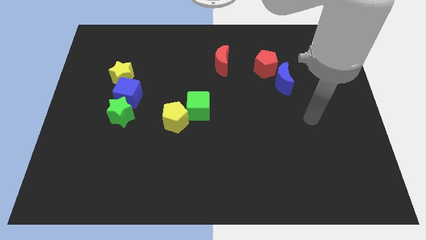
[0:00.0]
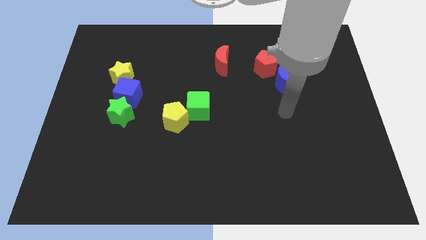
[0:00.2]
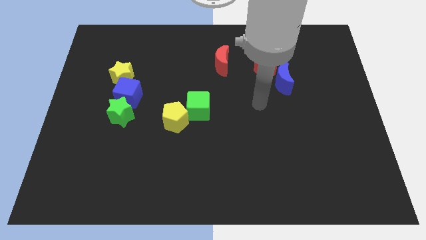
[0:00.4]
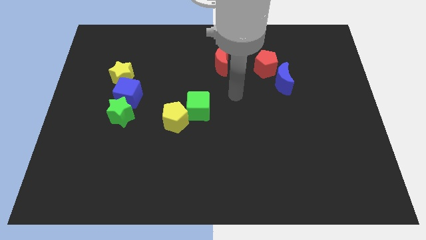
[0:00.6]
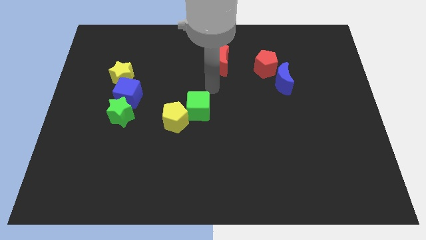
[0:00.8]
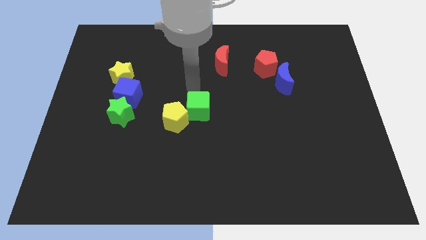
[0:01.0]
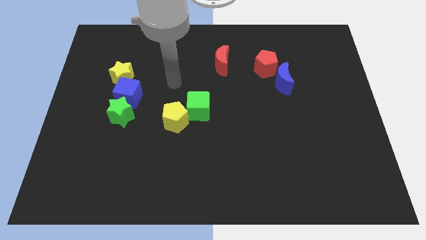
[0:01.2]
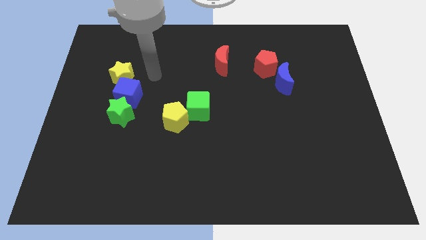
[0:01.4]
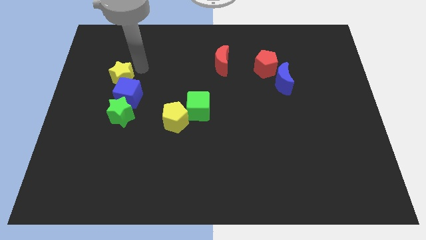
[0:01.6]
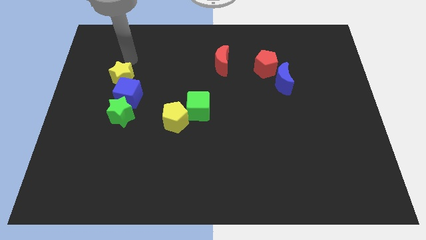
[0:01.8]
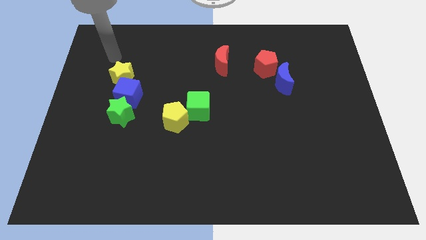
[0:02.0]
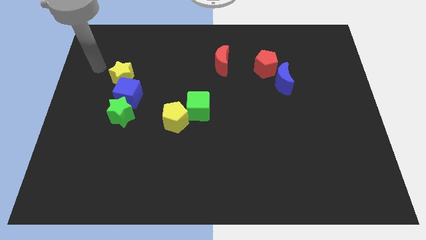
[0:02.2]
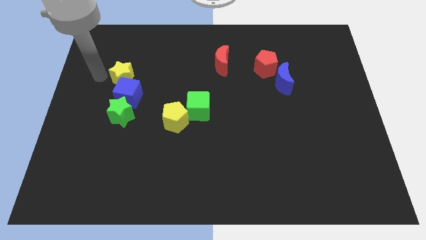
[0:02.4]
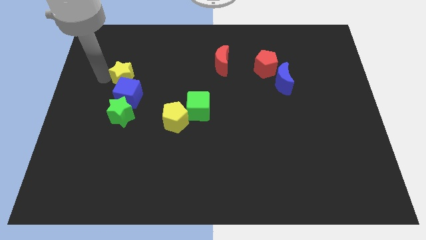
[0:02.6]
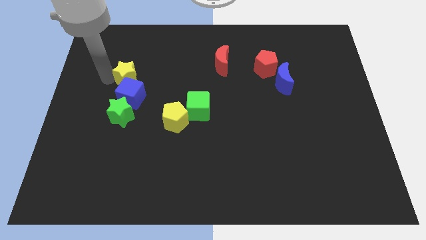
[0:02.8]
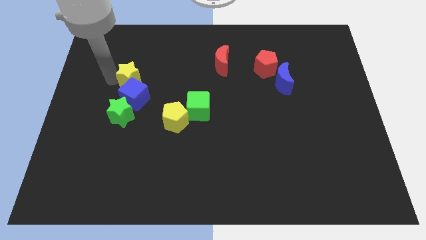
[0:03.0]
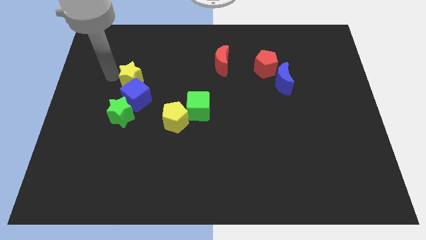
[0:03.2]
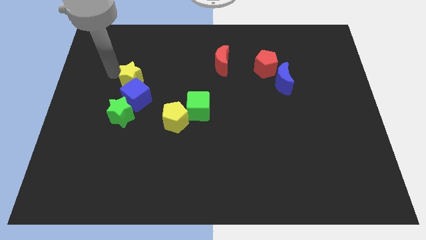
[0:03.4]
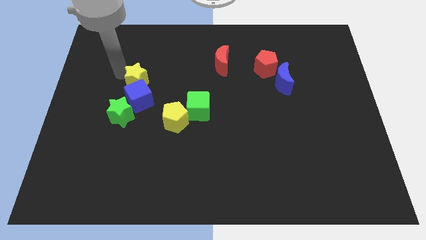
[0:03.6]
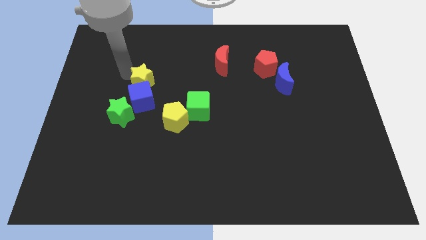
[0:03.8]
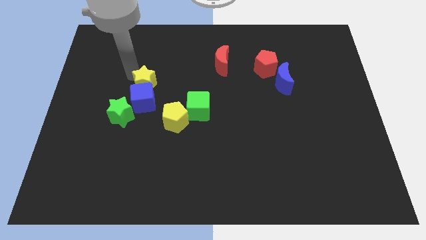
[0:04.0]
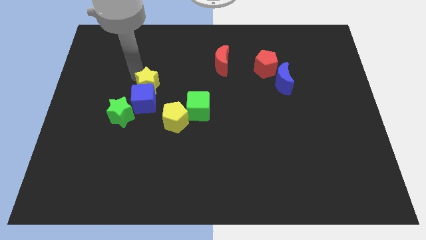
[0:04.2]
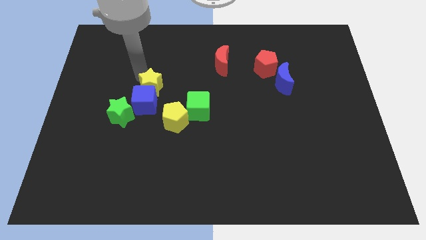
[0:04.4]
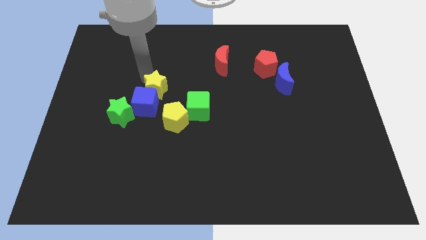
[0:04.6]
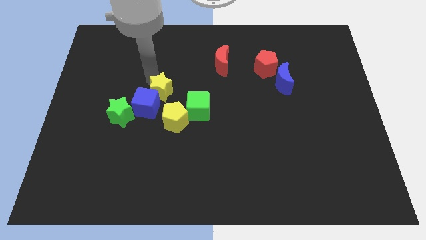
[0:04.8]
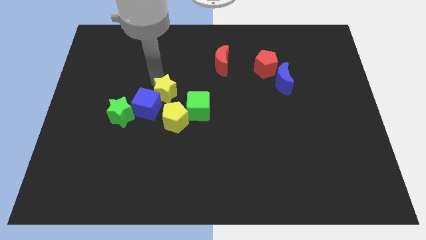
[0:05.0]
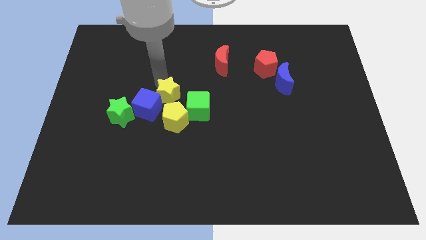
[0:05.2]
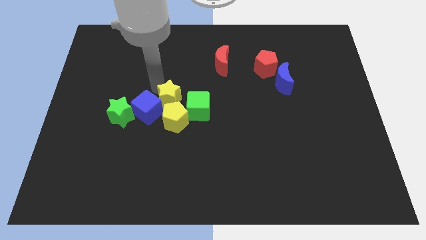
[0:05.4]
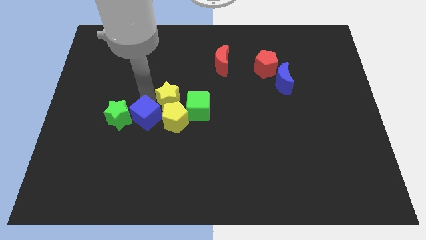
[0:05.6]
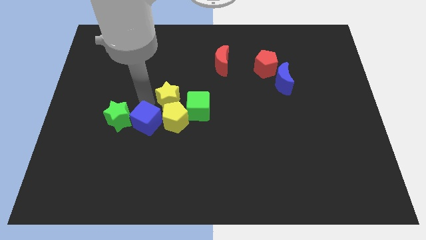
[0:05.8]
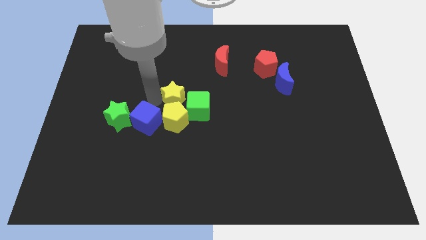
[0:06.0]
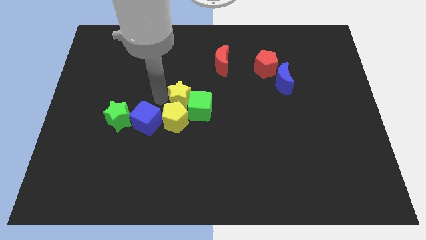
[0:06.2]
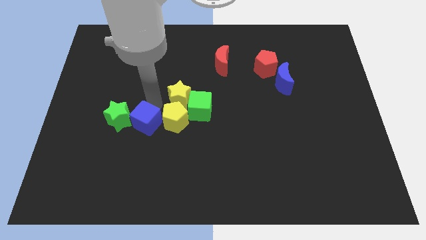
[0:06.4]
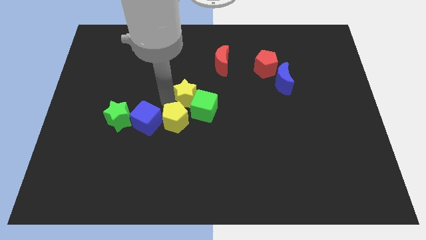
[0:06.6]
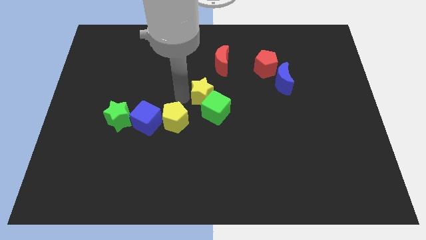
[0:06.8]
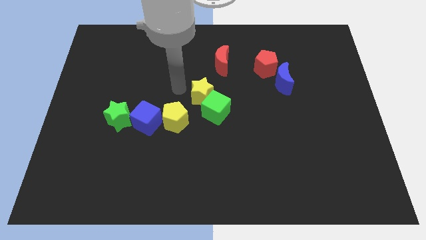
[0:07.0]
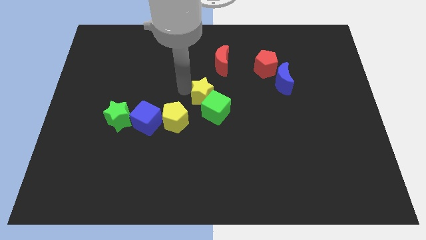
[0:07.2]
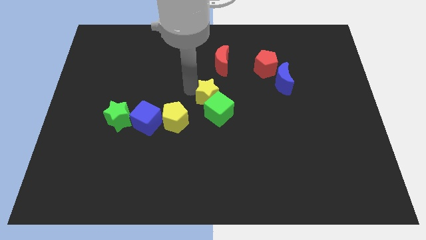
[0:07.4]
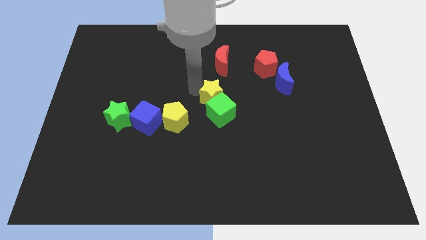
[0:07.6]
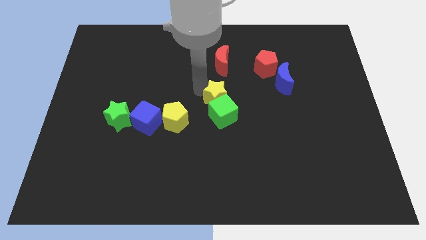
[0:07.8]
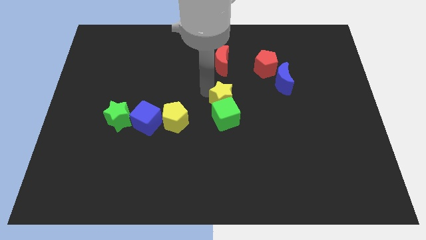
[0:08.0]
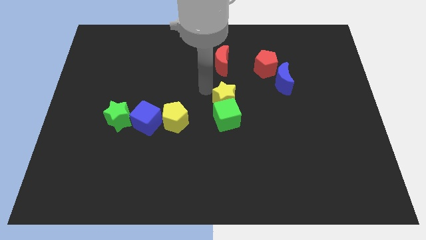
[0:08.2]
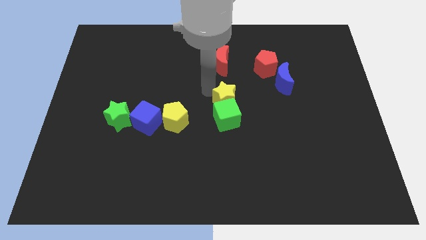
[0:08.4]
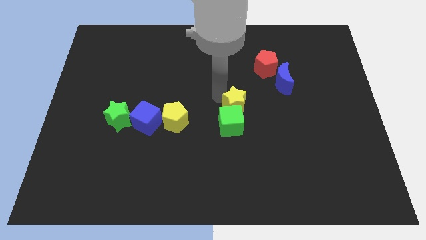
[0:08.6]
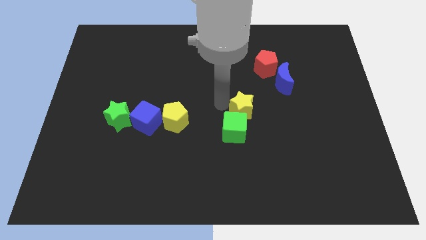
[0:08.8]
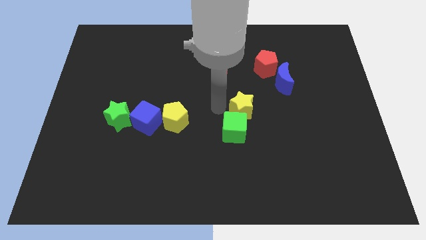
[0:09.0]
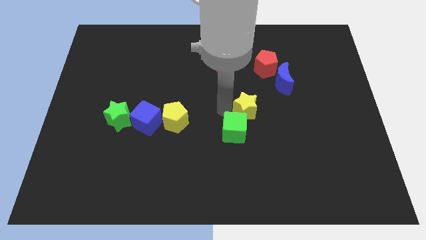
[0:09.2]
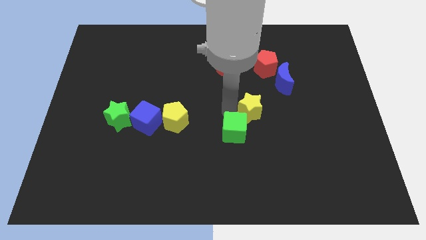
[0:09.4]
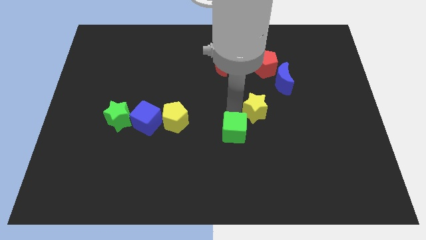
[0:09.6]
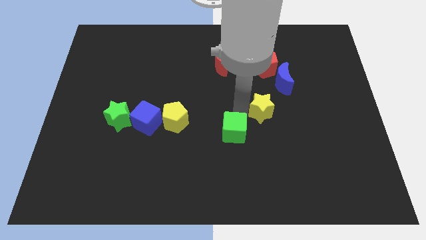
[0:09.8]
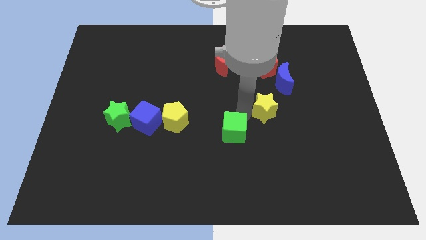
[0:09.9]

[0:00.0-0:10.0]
push the yellow star below the blue moon

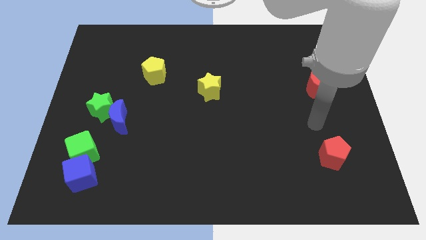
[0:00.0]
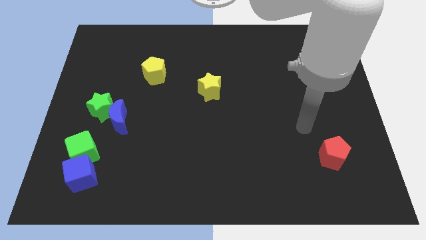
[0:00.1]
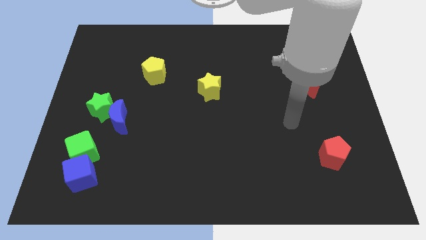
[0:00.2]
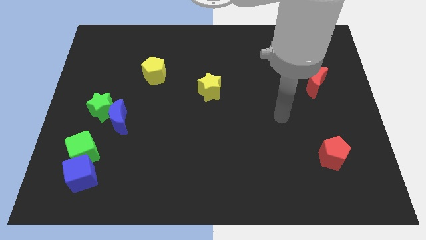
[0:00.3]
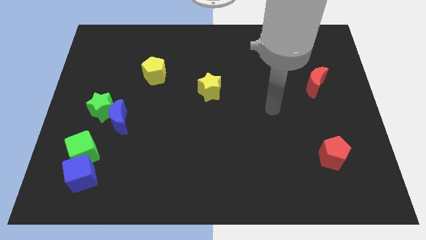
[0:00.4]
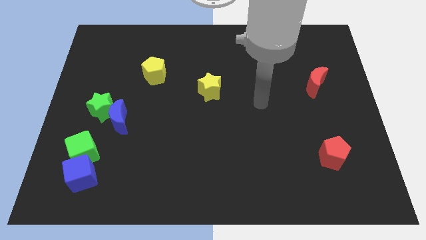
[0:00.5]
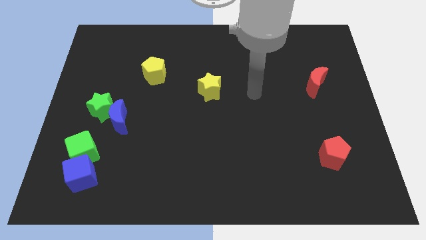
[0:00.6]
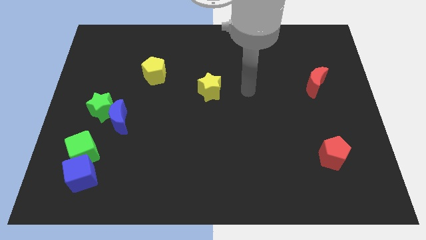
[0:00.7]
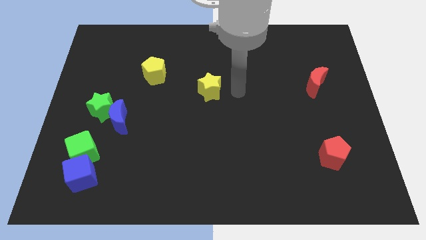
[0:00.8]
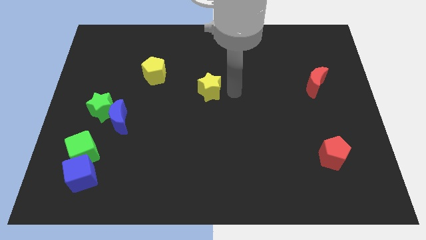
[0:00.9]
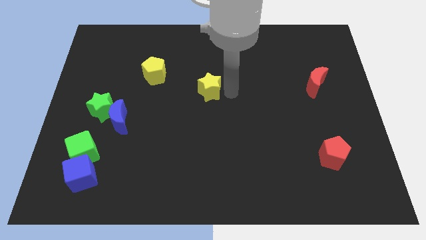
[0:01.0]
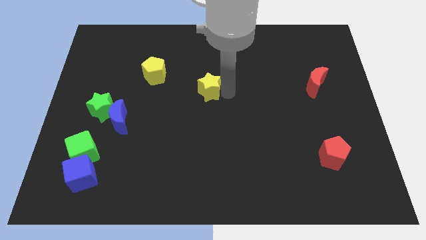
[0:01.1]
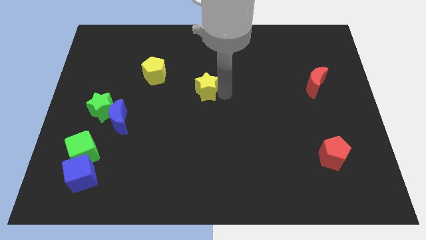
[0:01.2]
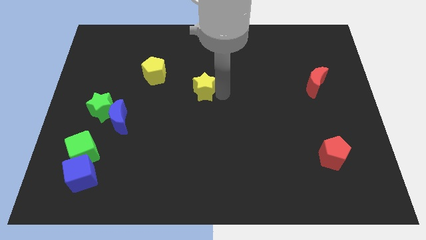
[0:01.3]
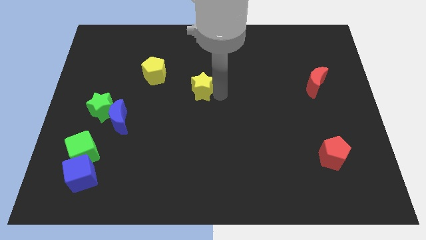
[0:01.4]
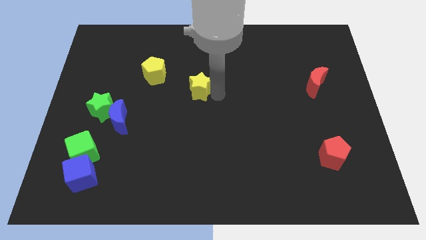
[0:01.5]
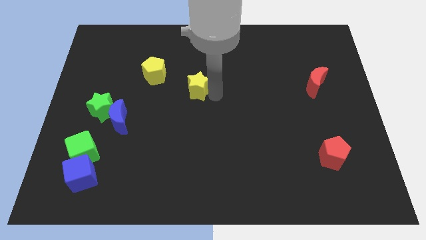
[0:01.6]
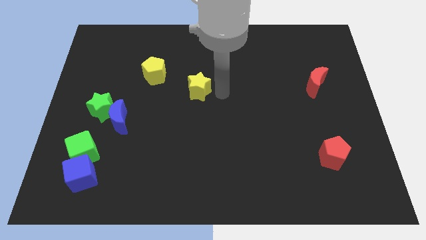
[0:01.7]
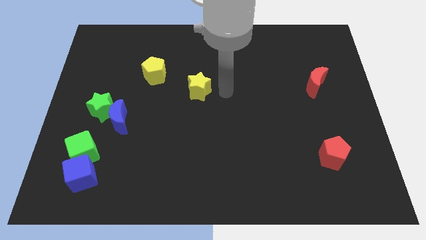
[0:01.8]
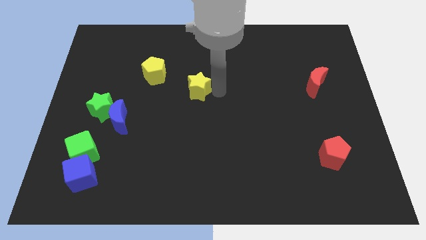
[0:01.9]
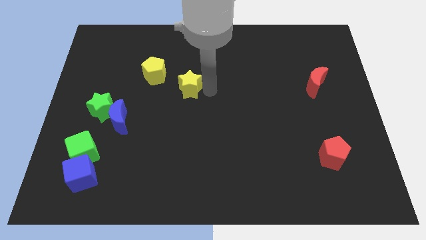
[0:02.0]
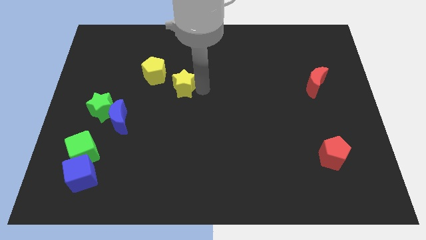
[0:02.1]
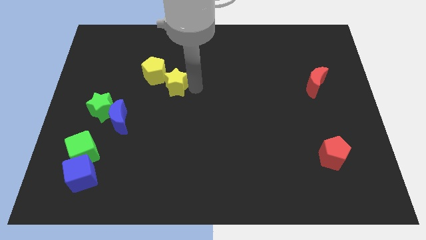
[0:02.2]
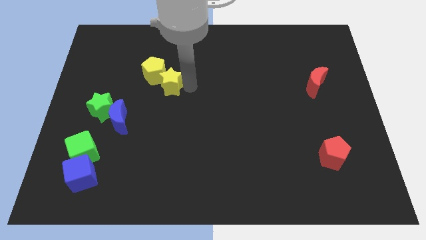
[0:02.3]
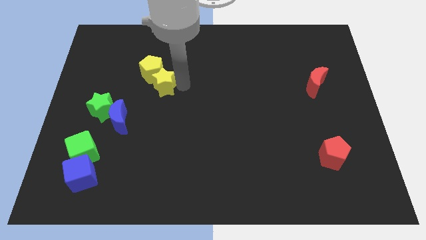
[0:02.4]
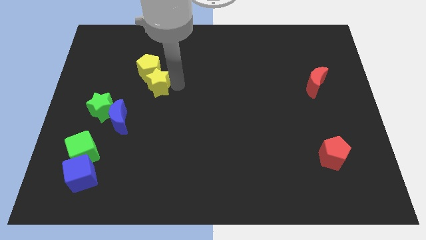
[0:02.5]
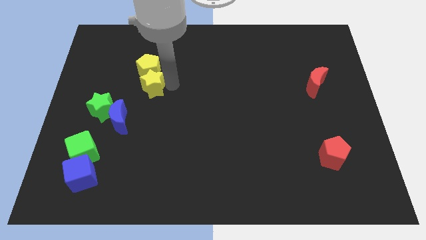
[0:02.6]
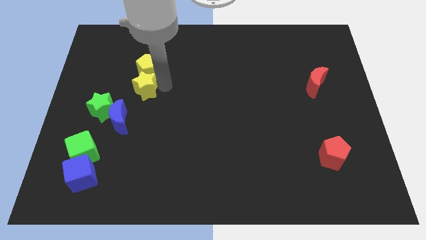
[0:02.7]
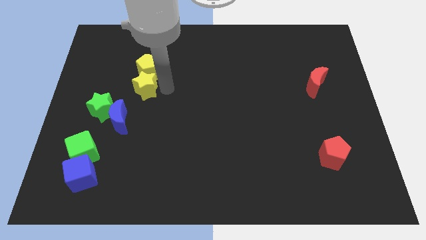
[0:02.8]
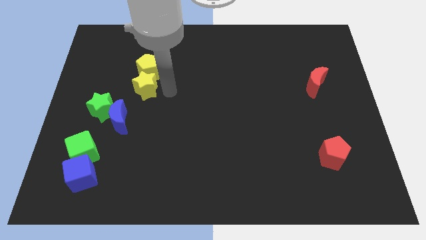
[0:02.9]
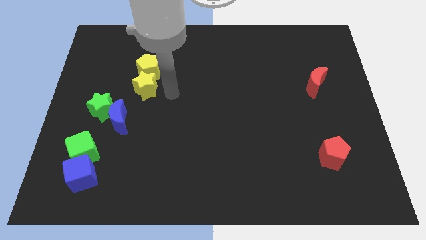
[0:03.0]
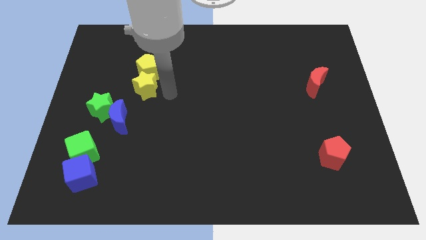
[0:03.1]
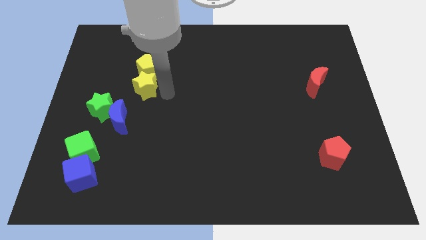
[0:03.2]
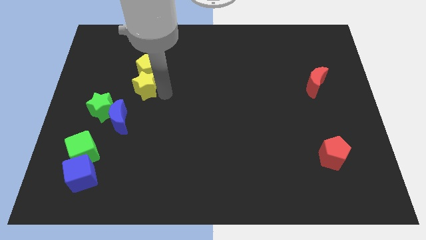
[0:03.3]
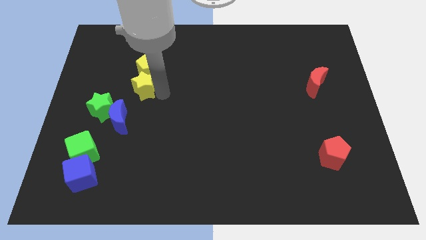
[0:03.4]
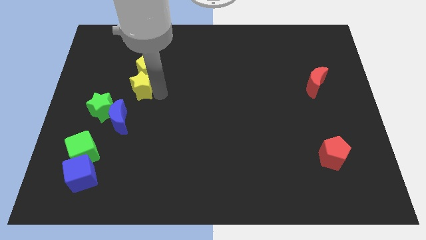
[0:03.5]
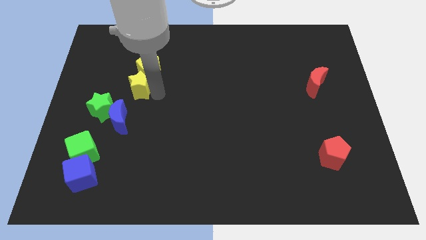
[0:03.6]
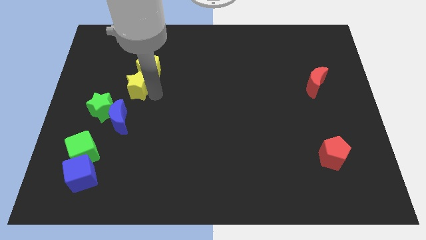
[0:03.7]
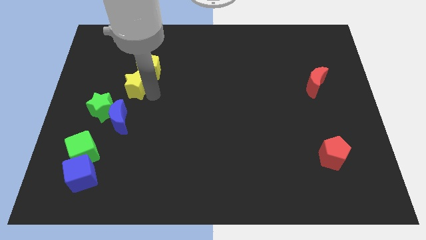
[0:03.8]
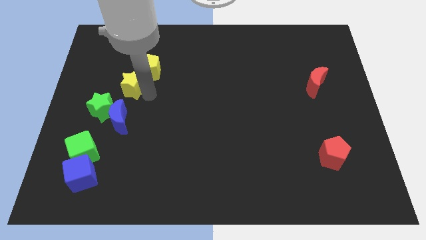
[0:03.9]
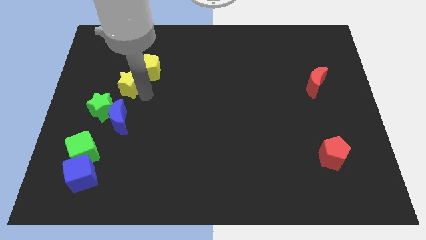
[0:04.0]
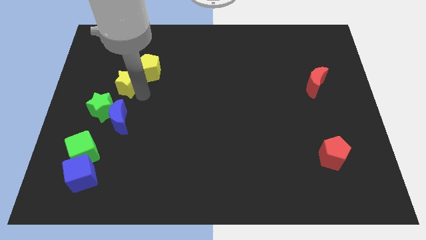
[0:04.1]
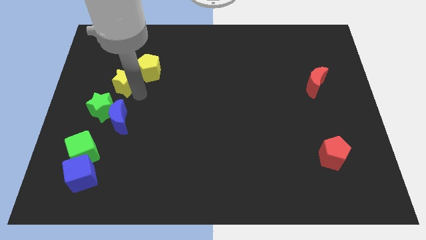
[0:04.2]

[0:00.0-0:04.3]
push the yellow star to the top side of the green star
